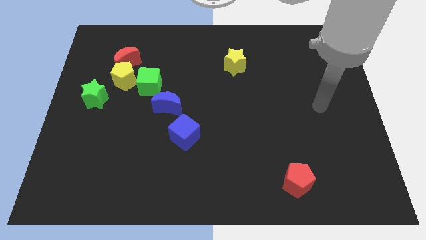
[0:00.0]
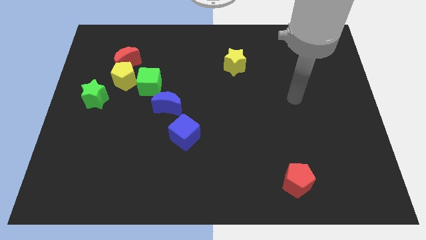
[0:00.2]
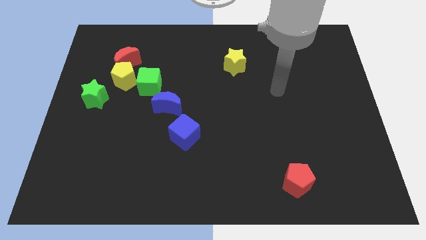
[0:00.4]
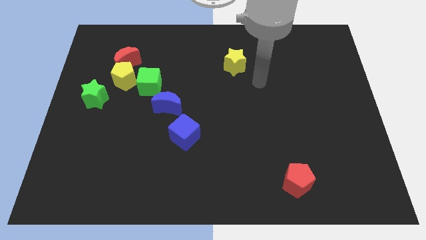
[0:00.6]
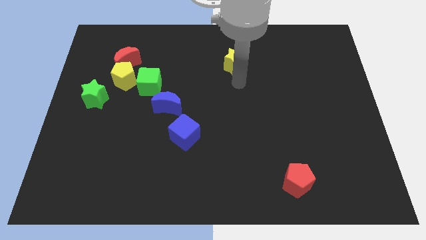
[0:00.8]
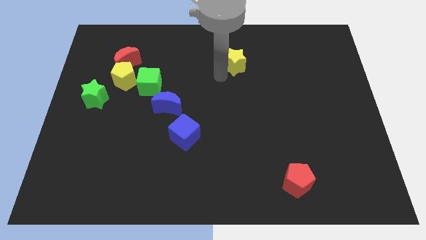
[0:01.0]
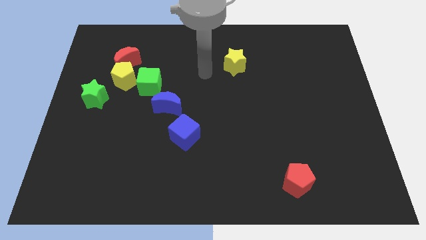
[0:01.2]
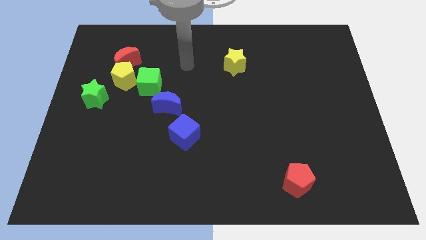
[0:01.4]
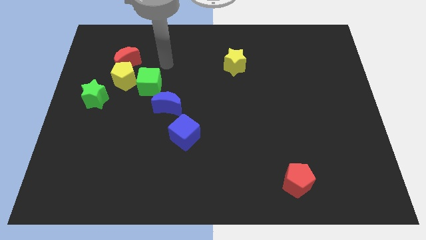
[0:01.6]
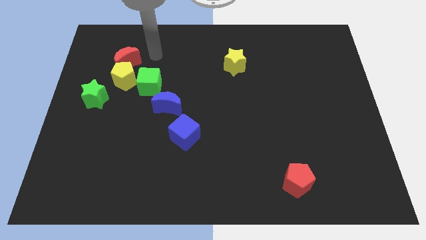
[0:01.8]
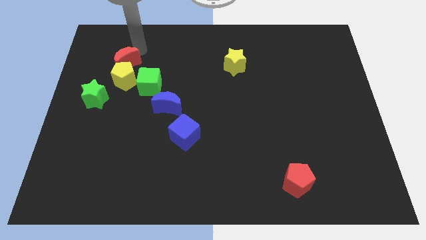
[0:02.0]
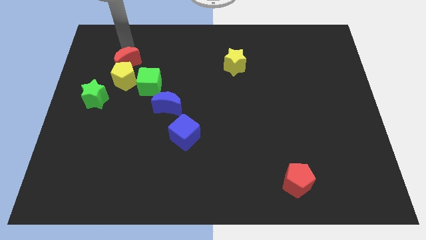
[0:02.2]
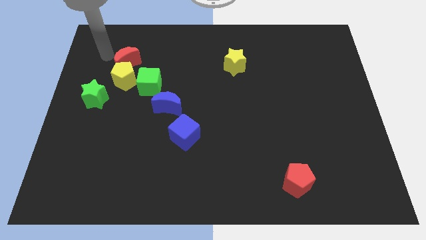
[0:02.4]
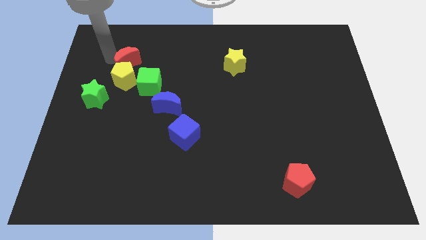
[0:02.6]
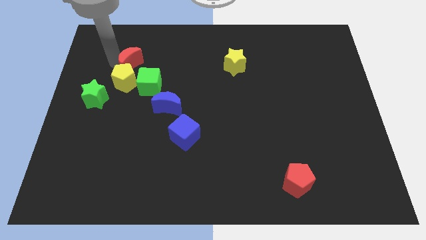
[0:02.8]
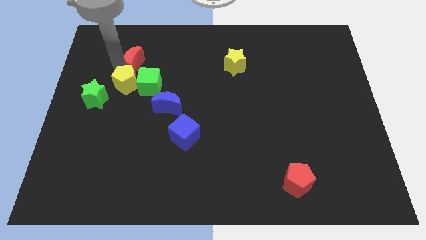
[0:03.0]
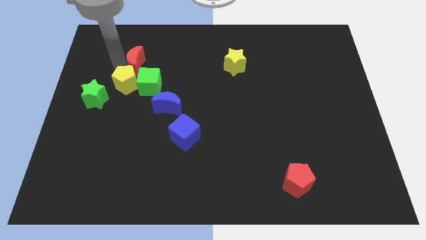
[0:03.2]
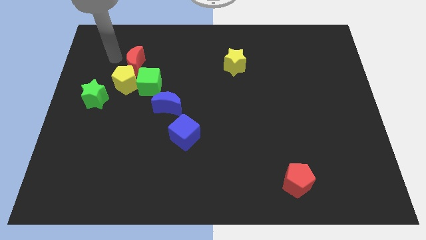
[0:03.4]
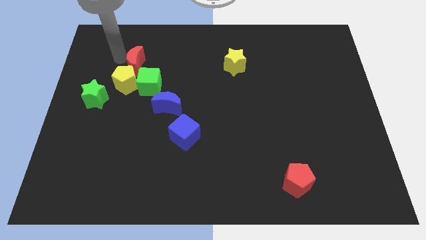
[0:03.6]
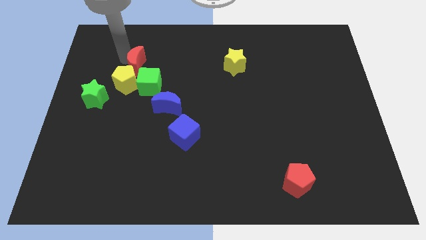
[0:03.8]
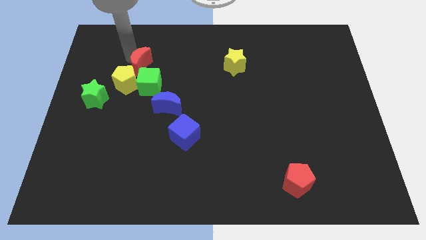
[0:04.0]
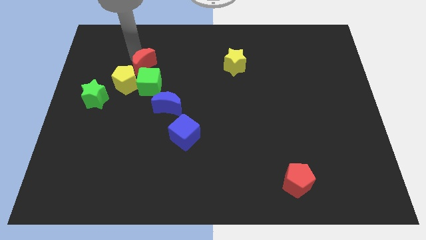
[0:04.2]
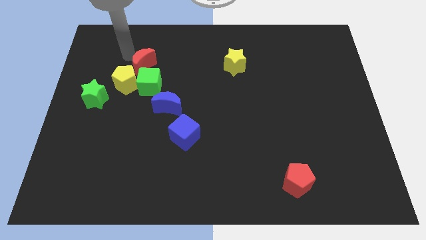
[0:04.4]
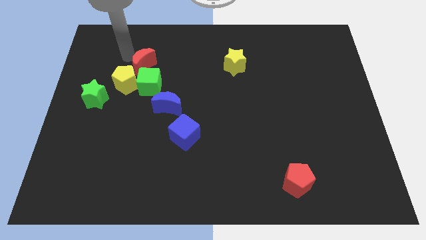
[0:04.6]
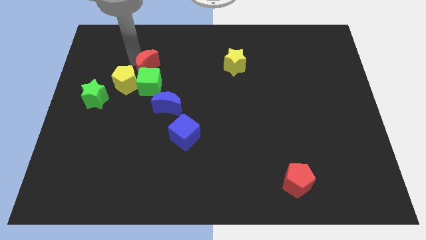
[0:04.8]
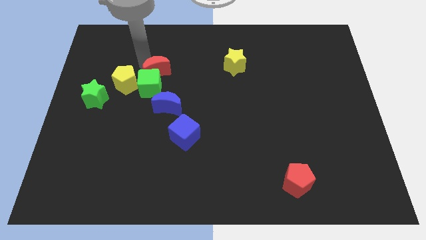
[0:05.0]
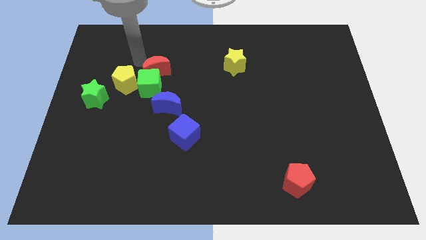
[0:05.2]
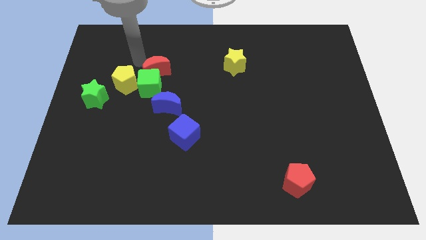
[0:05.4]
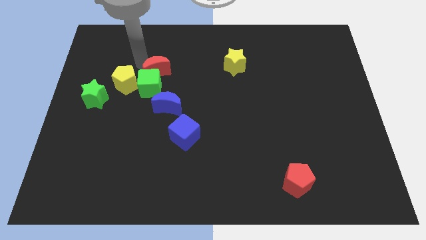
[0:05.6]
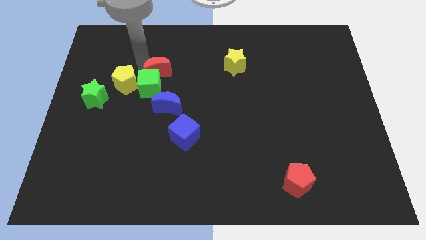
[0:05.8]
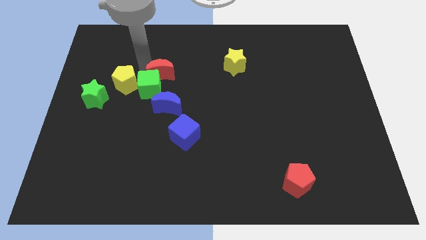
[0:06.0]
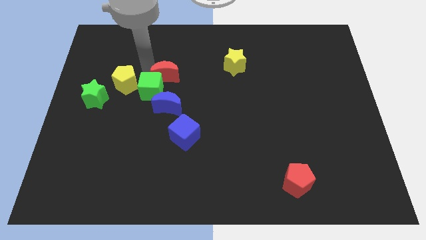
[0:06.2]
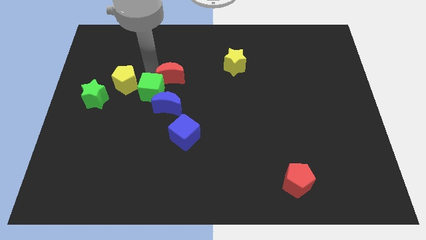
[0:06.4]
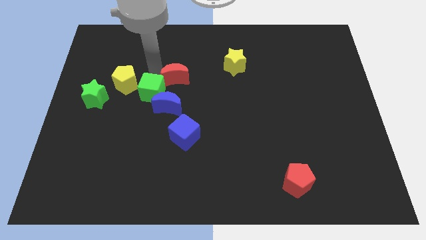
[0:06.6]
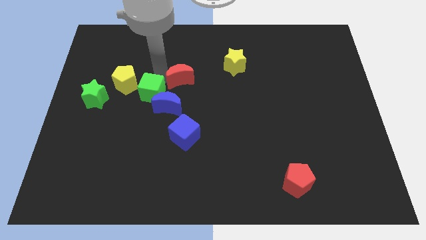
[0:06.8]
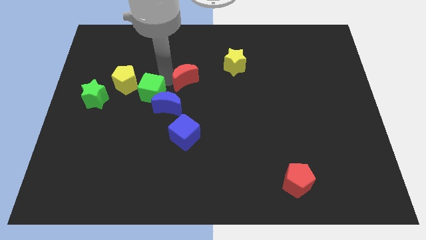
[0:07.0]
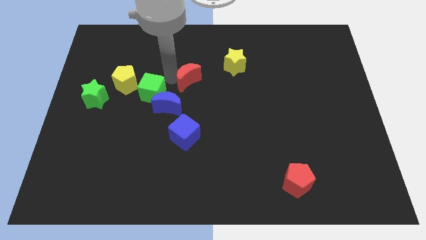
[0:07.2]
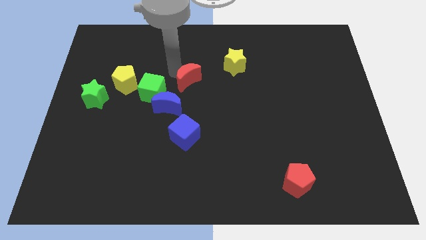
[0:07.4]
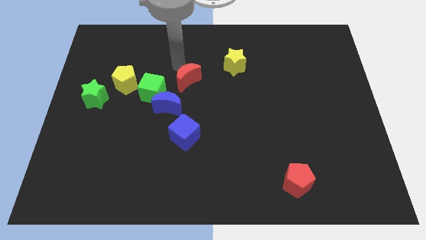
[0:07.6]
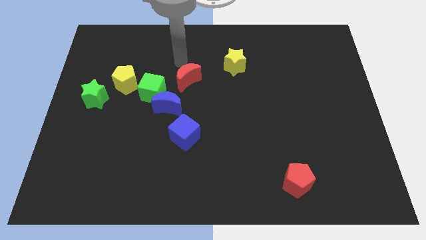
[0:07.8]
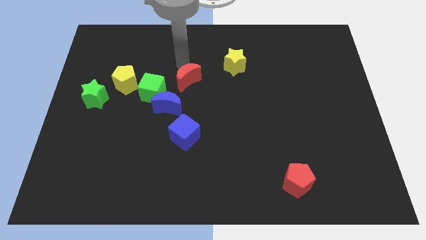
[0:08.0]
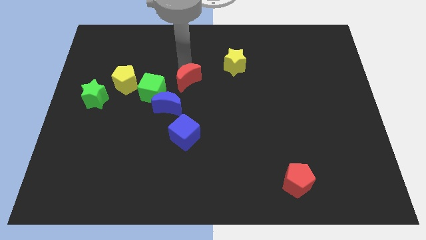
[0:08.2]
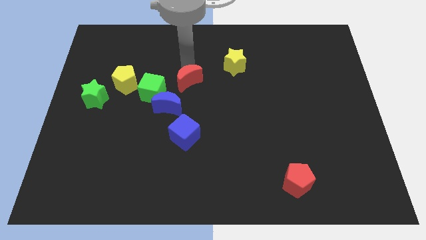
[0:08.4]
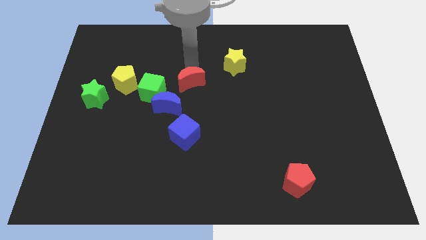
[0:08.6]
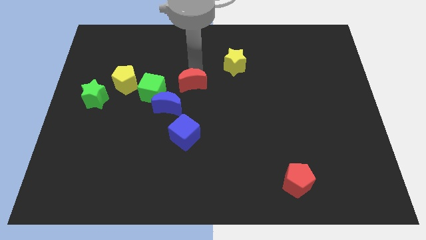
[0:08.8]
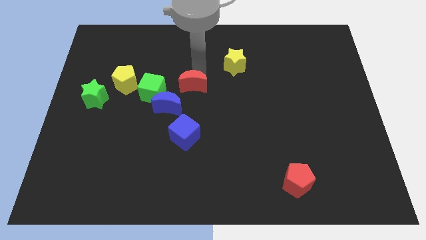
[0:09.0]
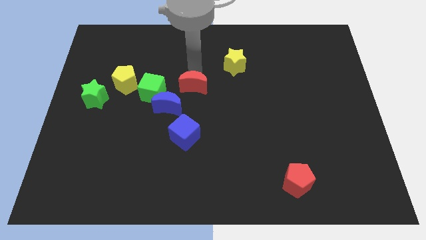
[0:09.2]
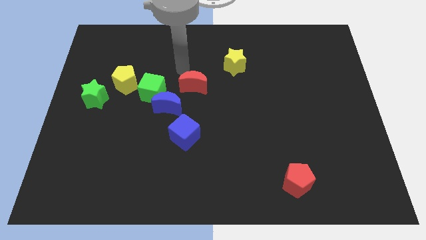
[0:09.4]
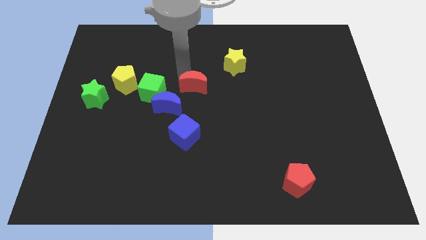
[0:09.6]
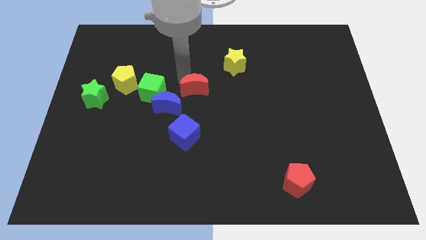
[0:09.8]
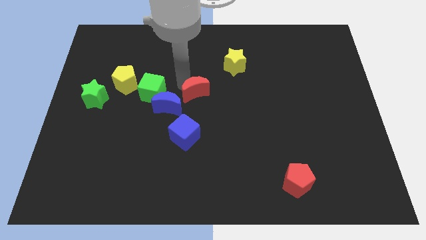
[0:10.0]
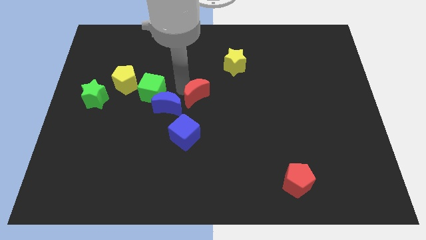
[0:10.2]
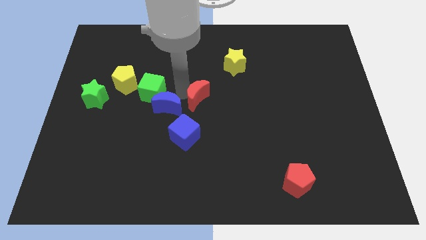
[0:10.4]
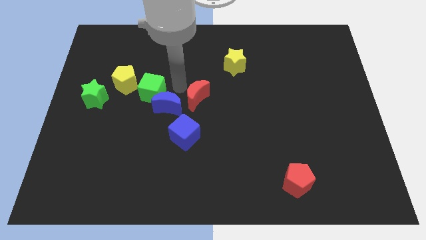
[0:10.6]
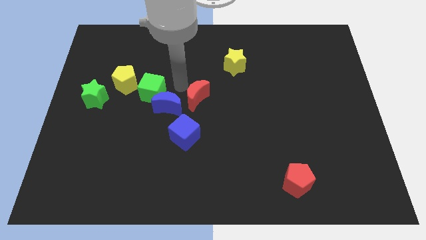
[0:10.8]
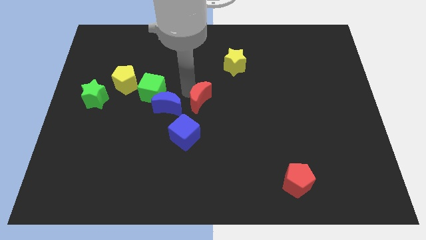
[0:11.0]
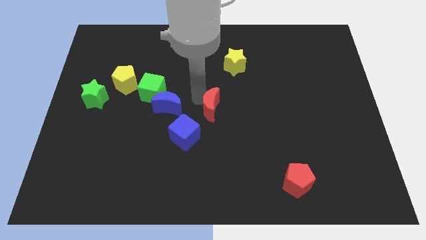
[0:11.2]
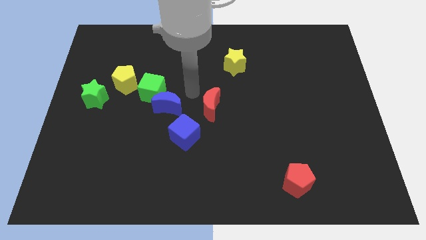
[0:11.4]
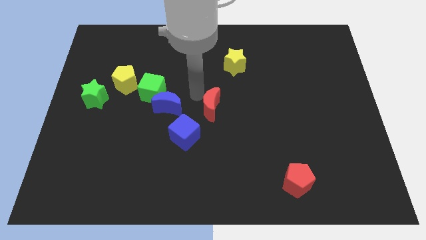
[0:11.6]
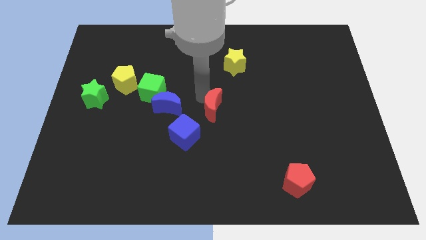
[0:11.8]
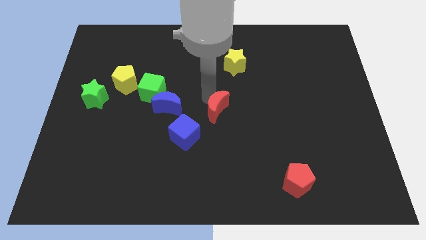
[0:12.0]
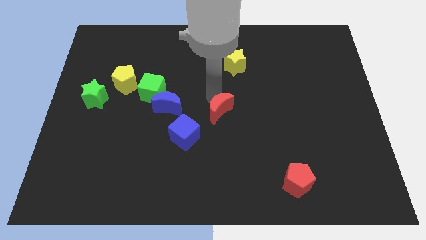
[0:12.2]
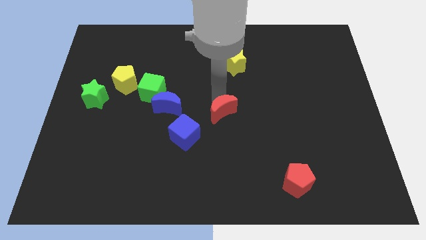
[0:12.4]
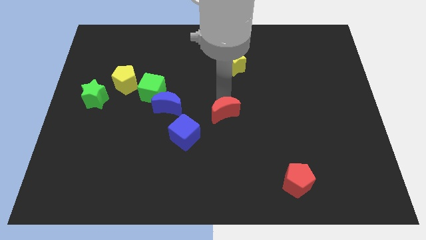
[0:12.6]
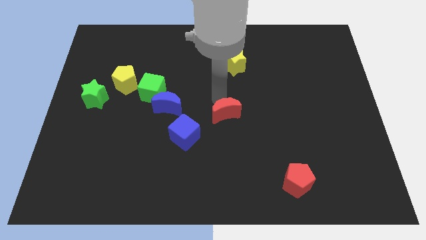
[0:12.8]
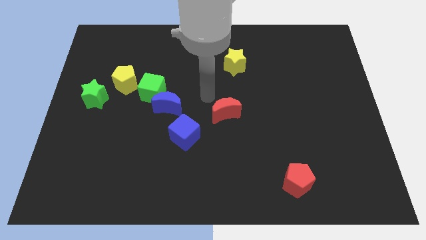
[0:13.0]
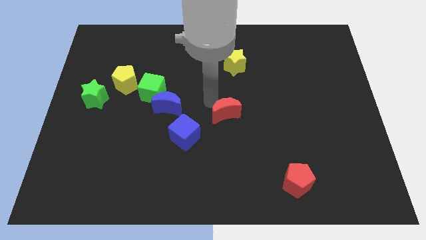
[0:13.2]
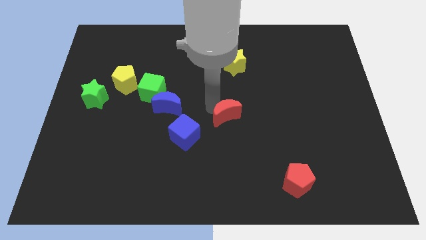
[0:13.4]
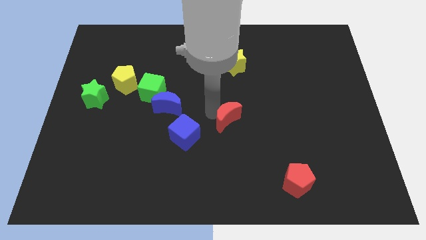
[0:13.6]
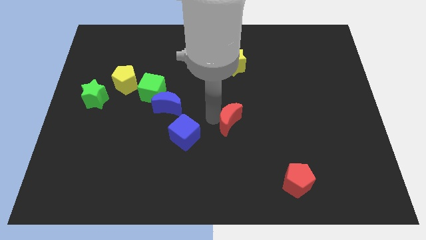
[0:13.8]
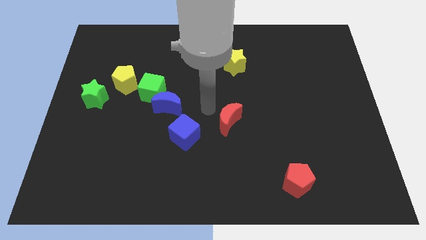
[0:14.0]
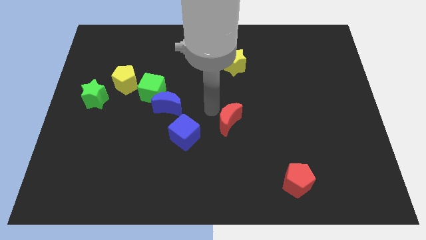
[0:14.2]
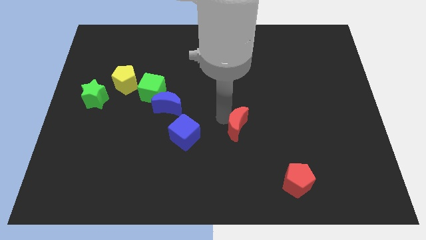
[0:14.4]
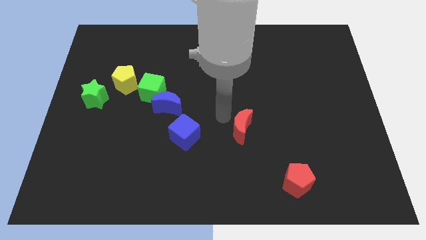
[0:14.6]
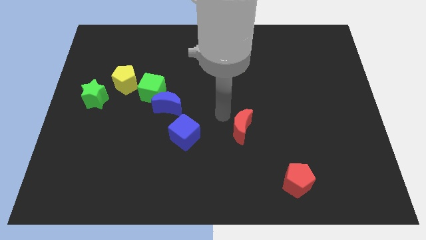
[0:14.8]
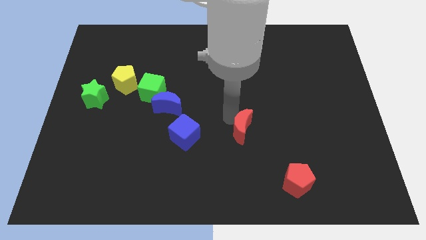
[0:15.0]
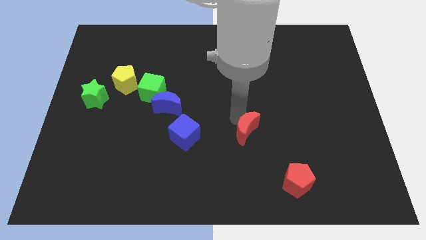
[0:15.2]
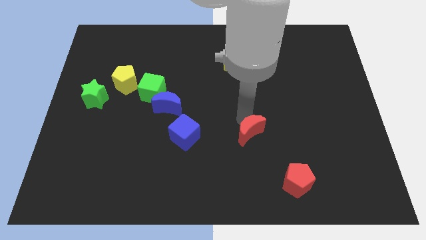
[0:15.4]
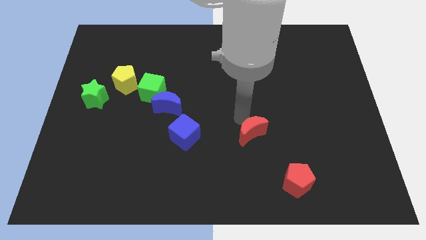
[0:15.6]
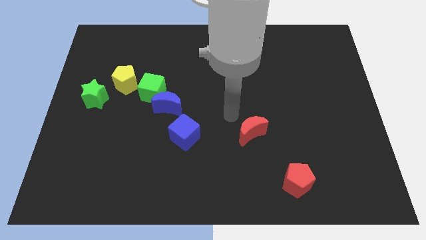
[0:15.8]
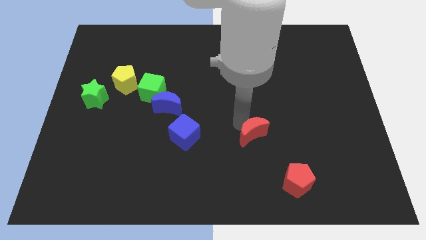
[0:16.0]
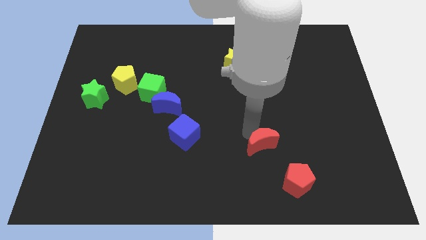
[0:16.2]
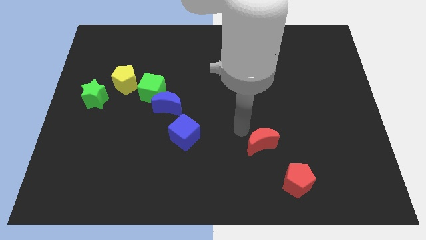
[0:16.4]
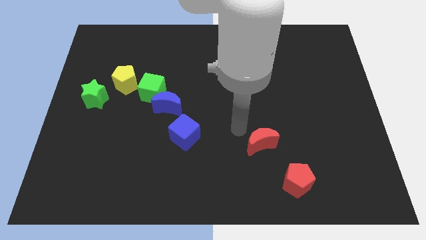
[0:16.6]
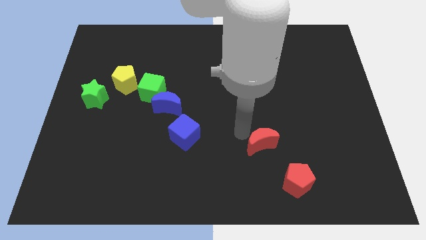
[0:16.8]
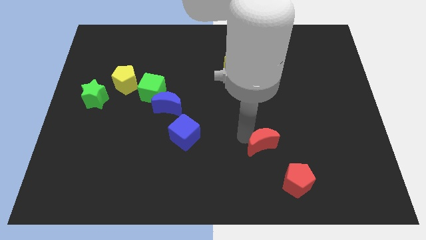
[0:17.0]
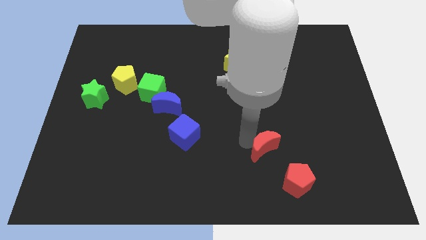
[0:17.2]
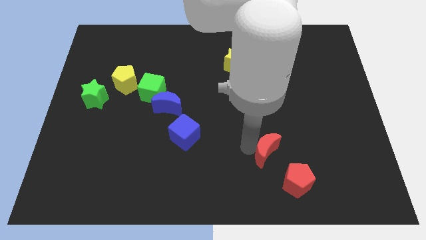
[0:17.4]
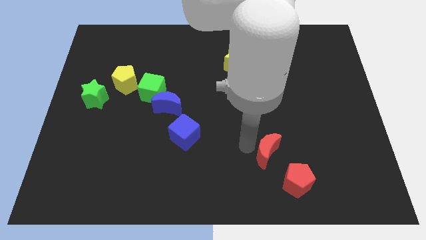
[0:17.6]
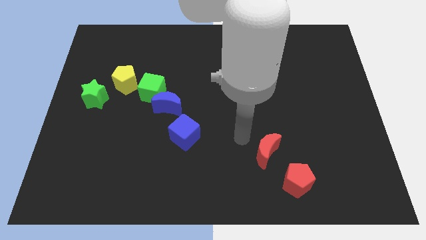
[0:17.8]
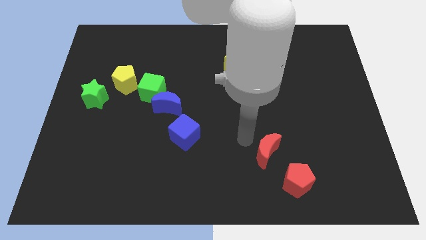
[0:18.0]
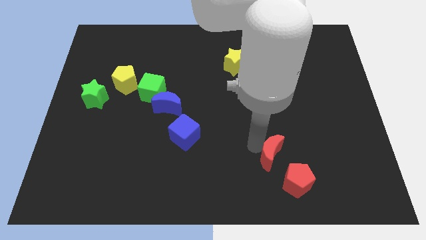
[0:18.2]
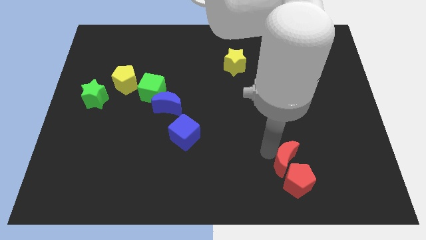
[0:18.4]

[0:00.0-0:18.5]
push the red moon next to the red pentagon
